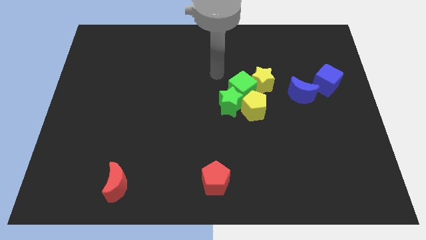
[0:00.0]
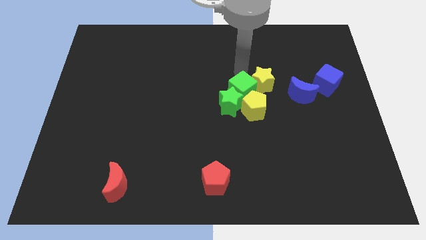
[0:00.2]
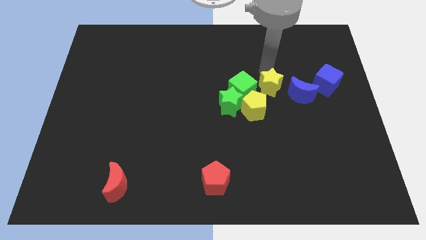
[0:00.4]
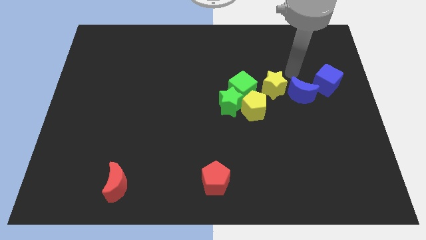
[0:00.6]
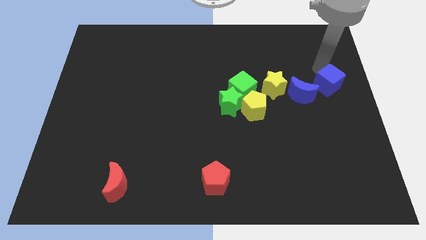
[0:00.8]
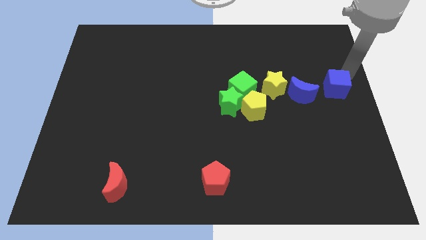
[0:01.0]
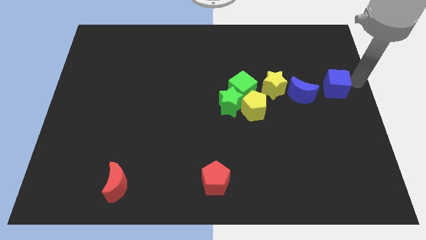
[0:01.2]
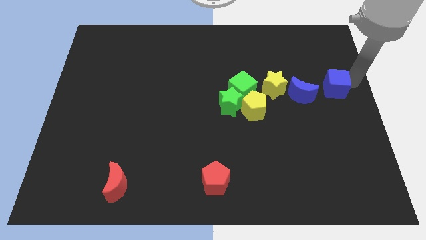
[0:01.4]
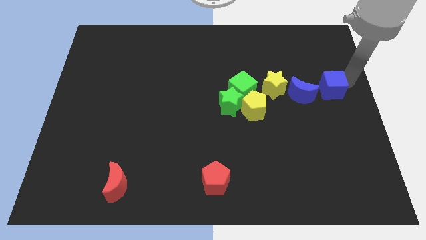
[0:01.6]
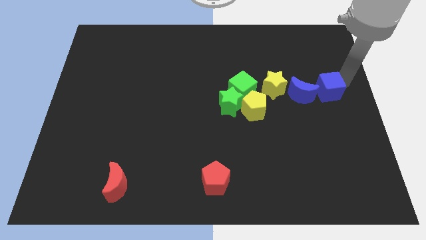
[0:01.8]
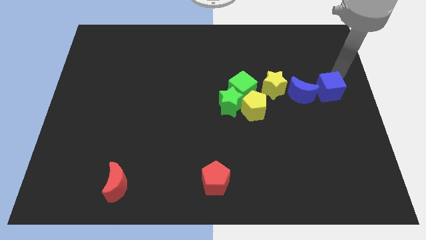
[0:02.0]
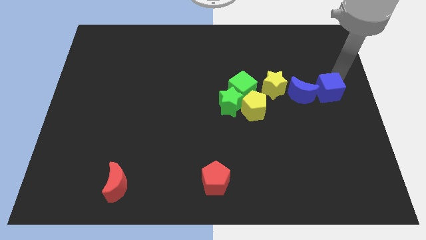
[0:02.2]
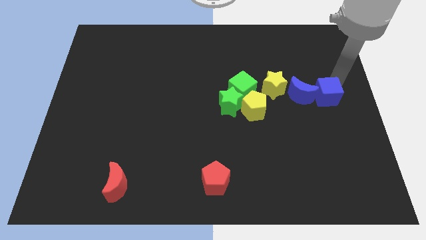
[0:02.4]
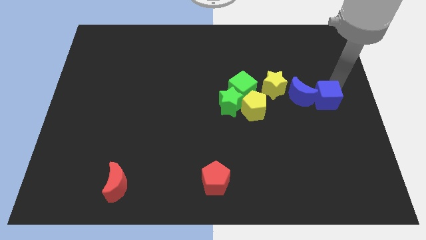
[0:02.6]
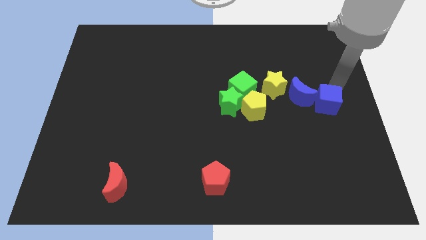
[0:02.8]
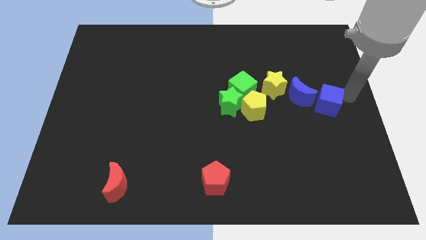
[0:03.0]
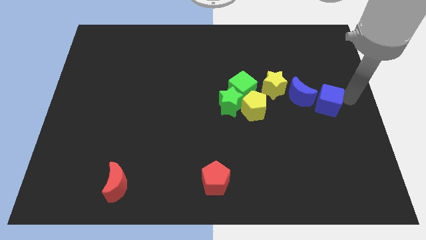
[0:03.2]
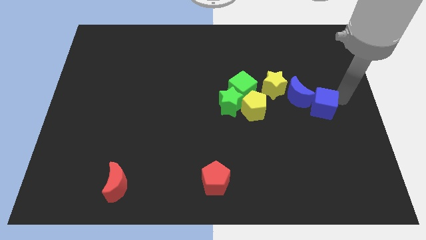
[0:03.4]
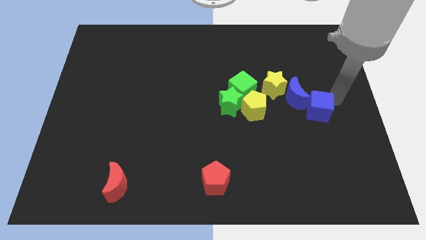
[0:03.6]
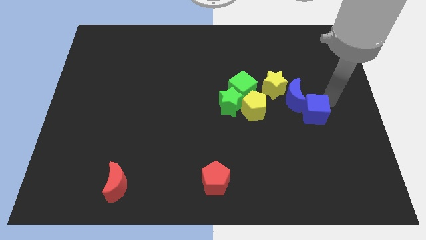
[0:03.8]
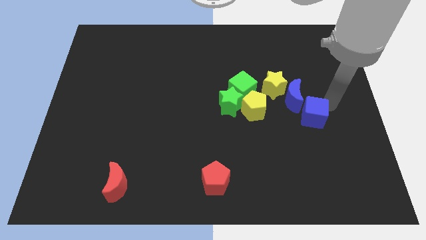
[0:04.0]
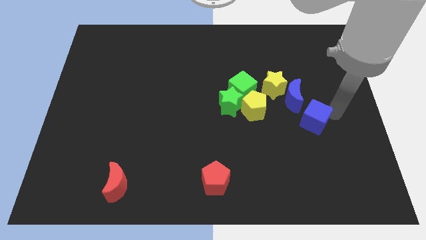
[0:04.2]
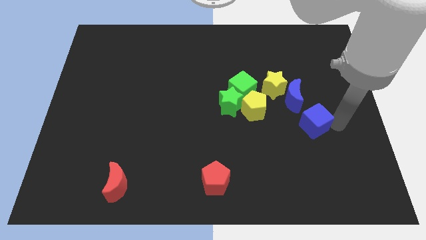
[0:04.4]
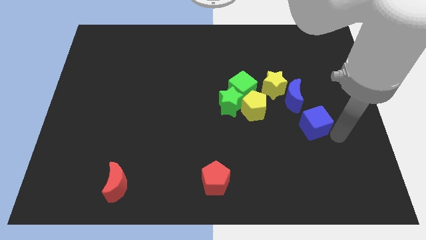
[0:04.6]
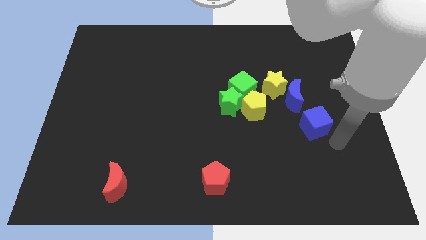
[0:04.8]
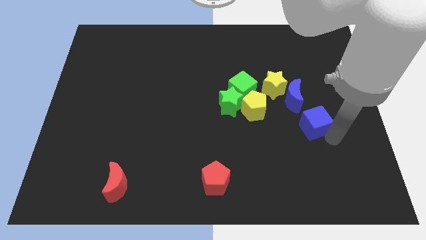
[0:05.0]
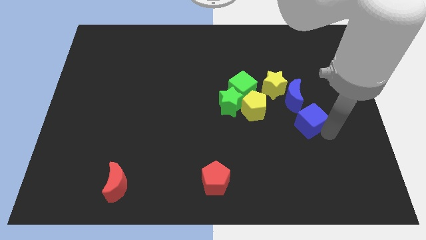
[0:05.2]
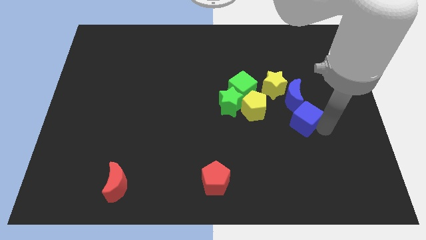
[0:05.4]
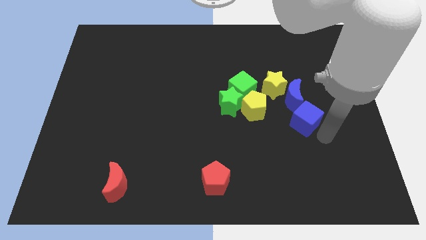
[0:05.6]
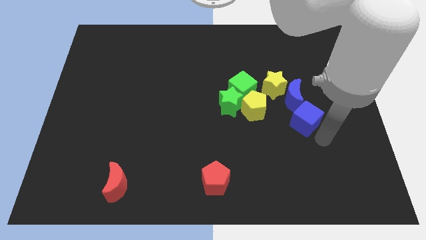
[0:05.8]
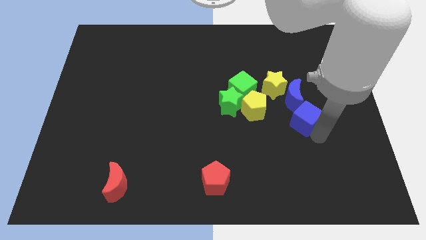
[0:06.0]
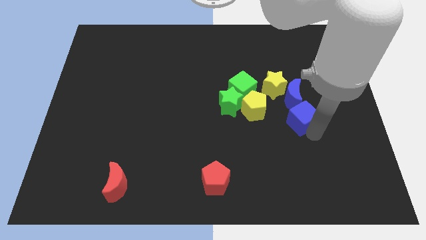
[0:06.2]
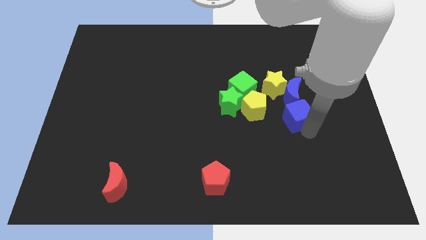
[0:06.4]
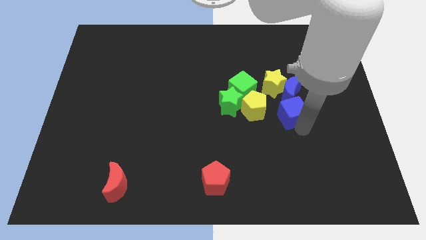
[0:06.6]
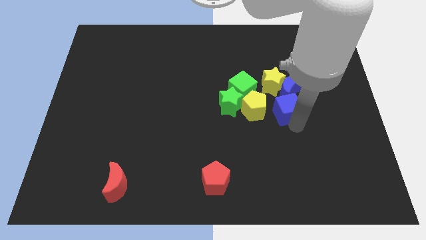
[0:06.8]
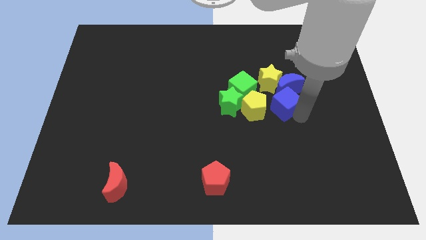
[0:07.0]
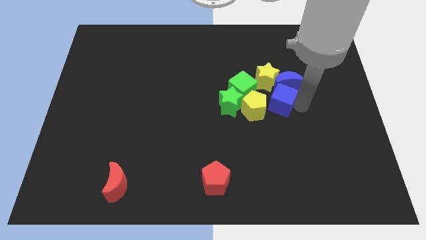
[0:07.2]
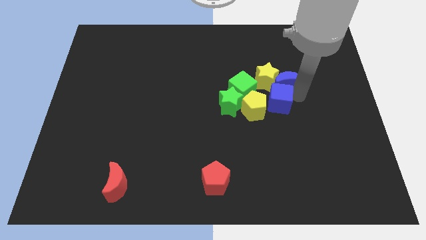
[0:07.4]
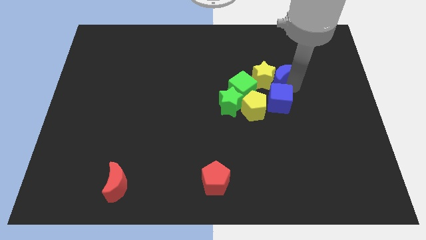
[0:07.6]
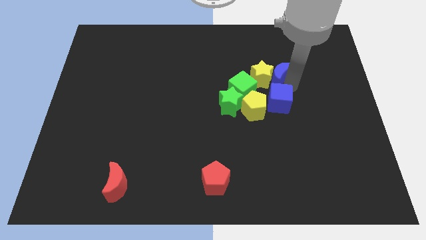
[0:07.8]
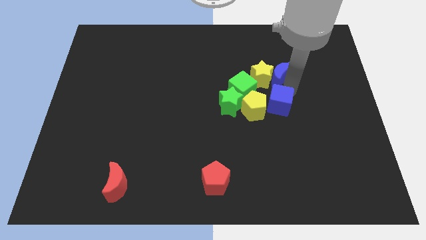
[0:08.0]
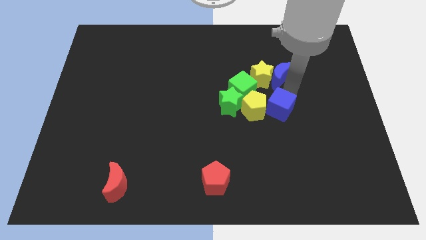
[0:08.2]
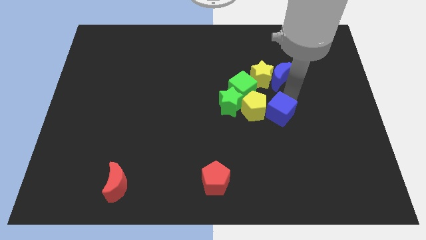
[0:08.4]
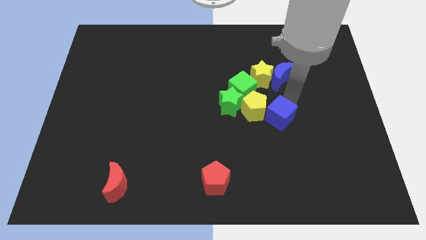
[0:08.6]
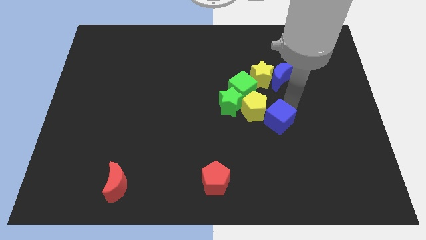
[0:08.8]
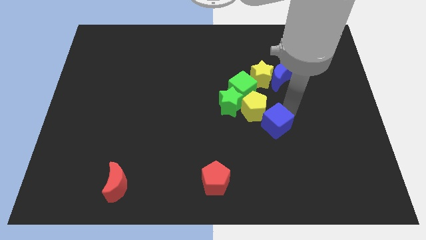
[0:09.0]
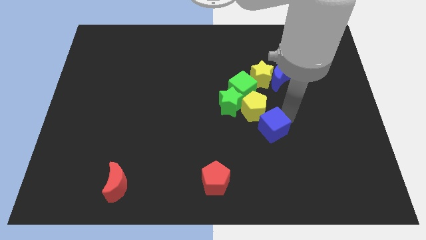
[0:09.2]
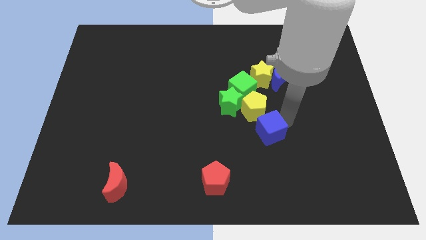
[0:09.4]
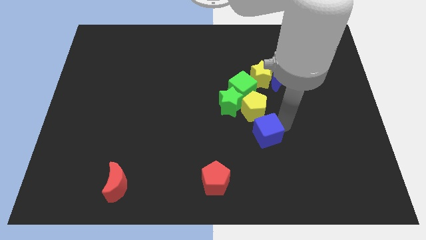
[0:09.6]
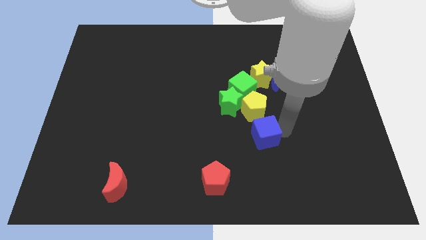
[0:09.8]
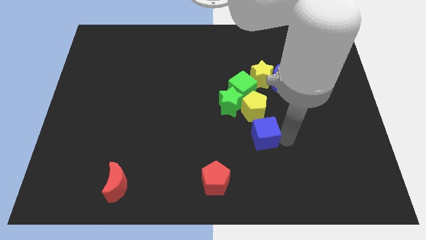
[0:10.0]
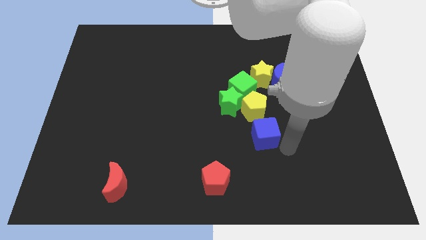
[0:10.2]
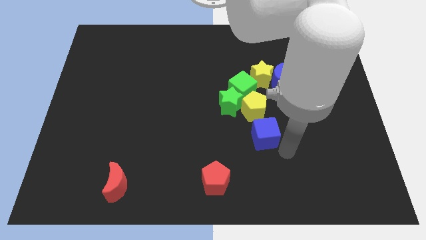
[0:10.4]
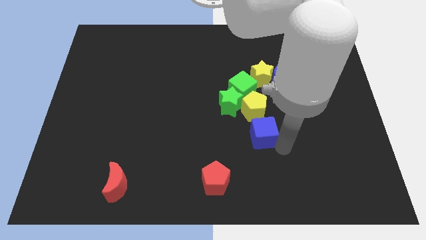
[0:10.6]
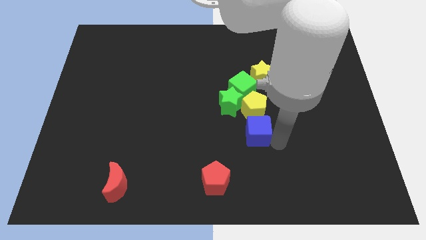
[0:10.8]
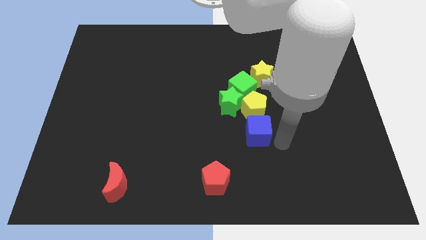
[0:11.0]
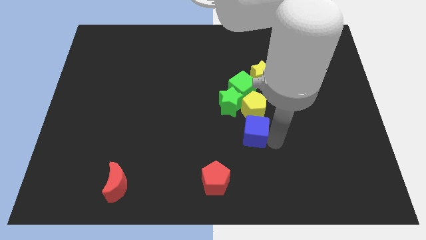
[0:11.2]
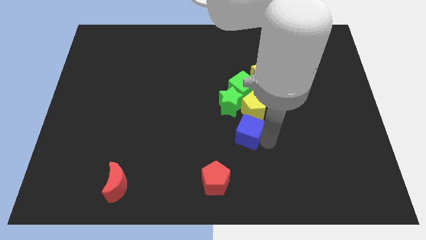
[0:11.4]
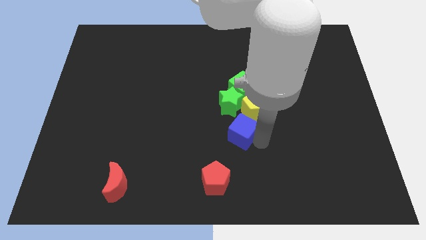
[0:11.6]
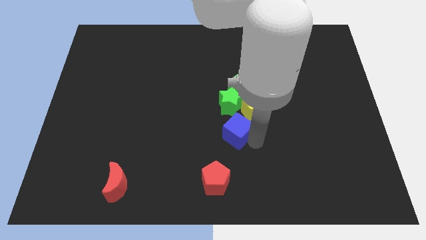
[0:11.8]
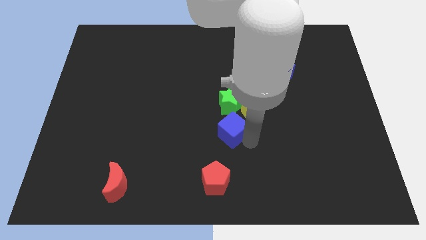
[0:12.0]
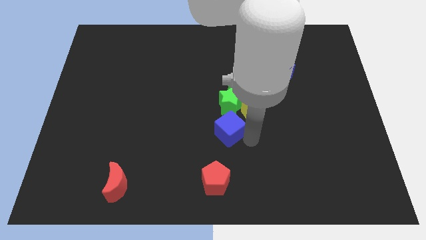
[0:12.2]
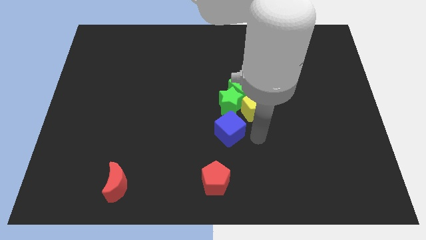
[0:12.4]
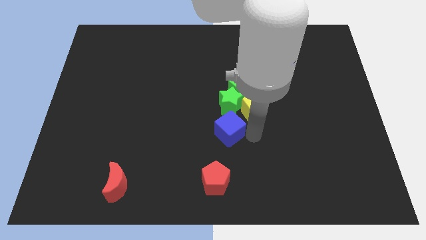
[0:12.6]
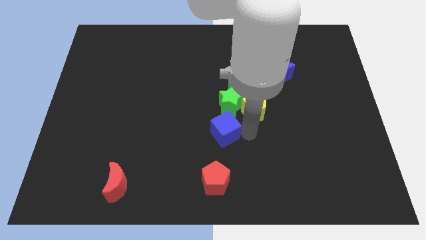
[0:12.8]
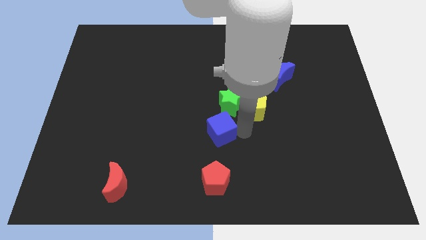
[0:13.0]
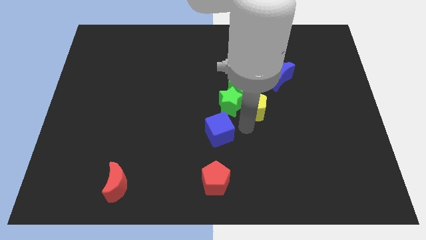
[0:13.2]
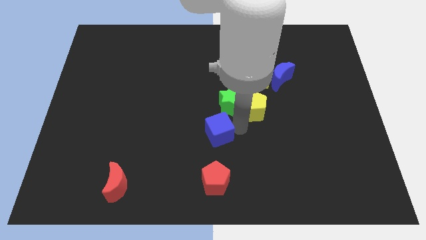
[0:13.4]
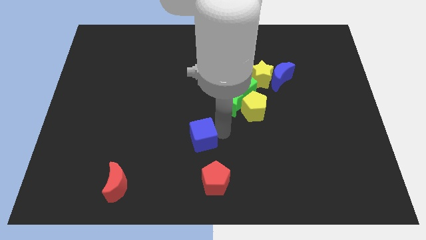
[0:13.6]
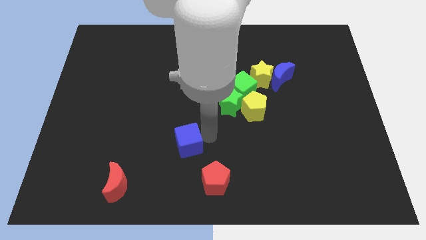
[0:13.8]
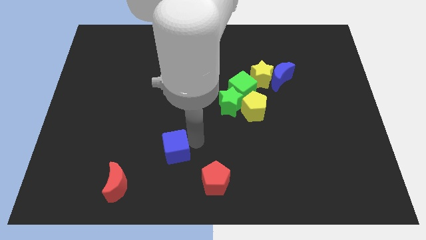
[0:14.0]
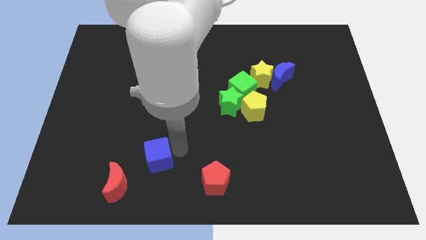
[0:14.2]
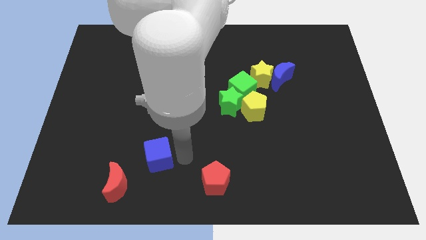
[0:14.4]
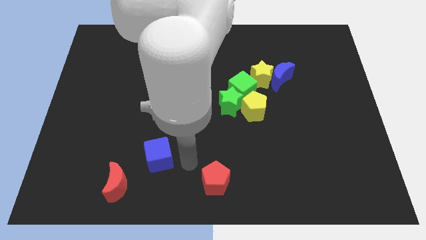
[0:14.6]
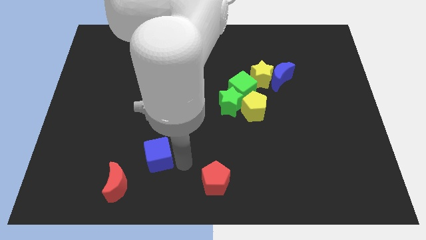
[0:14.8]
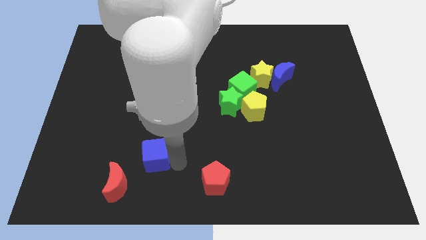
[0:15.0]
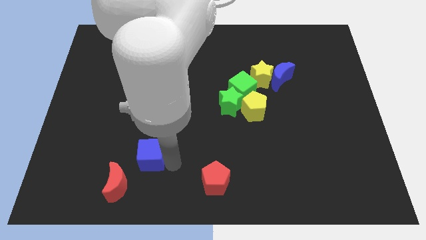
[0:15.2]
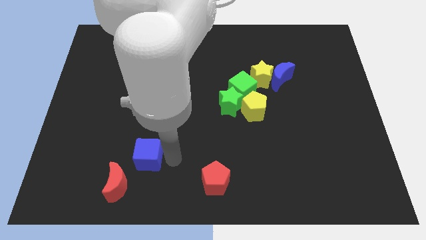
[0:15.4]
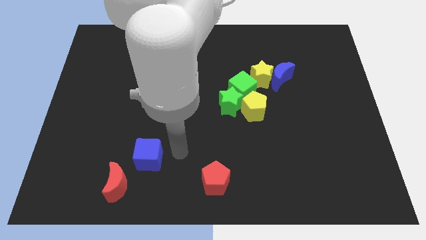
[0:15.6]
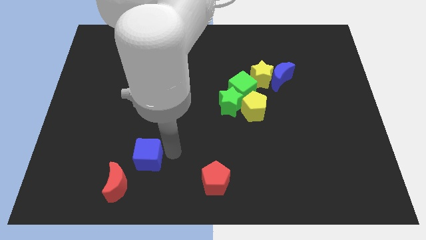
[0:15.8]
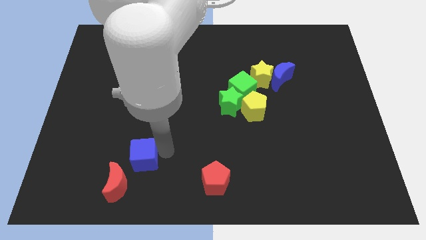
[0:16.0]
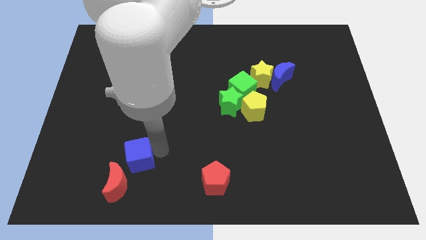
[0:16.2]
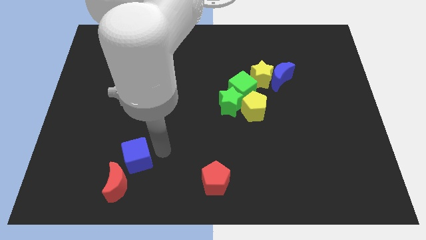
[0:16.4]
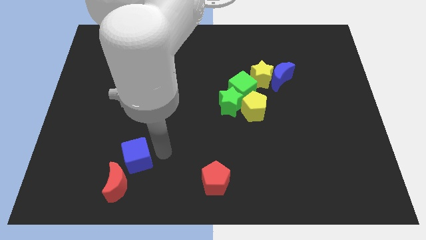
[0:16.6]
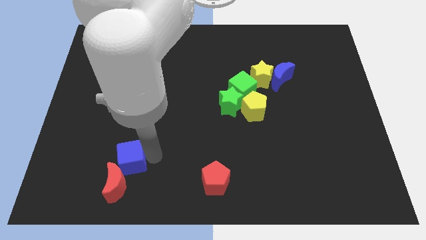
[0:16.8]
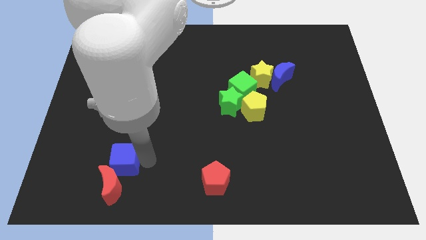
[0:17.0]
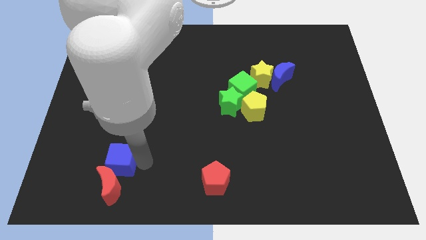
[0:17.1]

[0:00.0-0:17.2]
move the blue cube to the top left side of the red moon

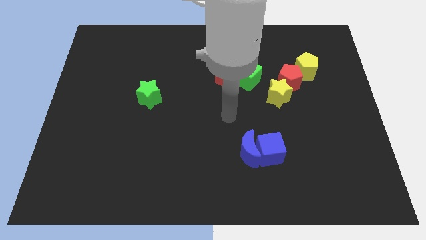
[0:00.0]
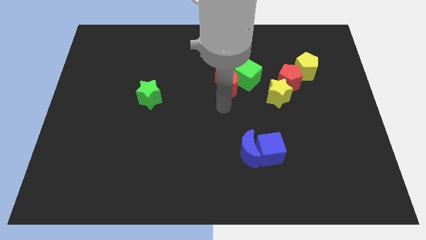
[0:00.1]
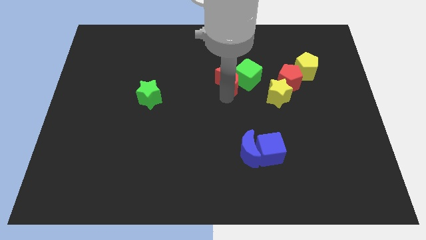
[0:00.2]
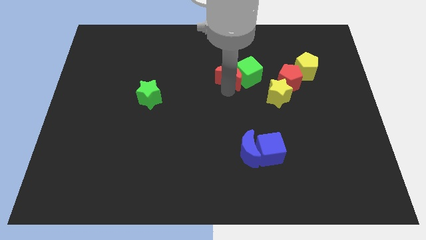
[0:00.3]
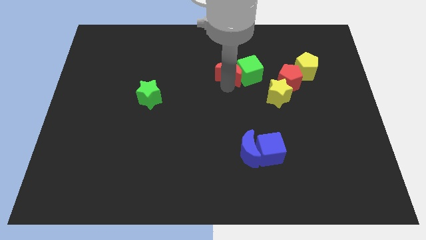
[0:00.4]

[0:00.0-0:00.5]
move the green cube to the top left side of the red pentagon
